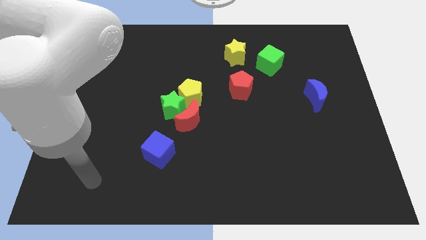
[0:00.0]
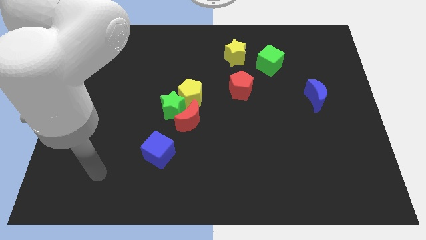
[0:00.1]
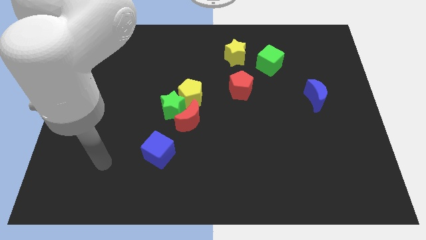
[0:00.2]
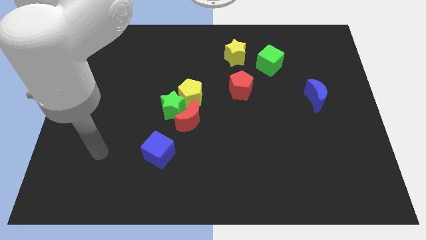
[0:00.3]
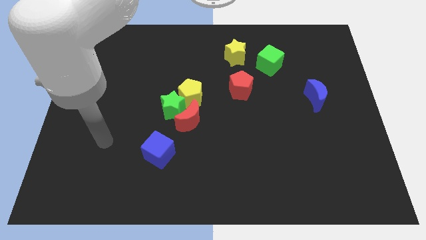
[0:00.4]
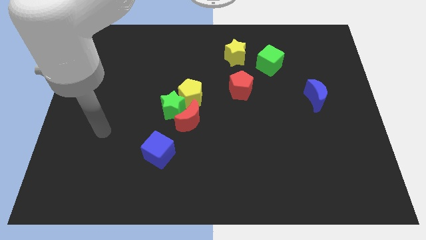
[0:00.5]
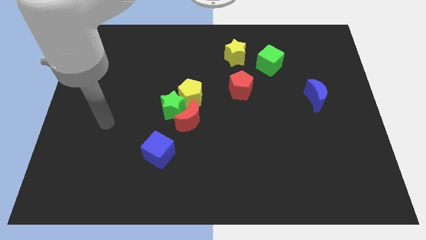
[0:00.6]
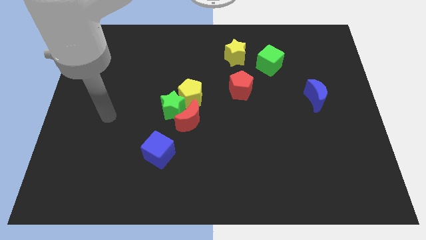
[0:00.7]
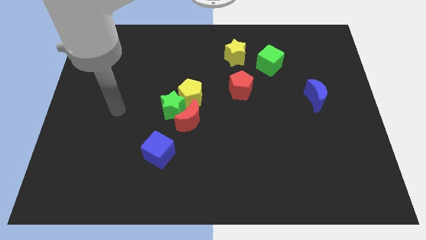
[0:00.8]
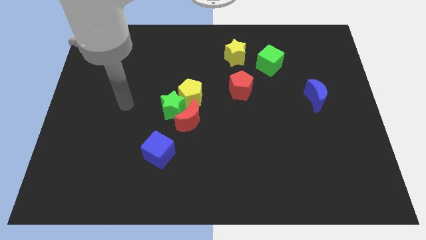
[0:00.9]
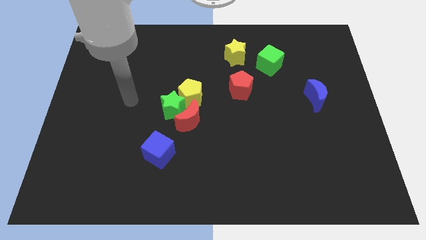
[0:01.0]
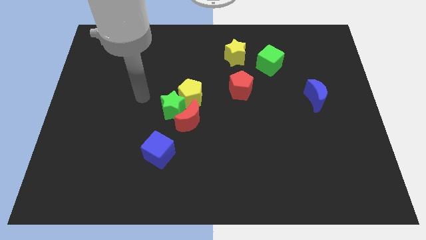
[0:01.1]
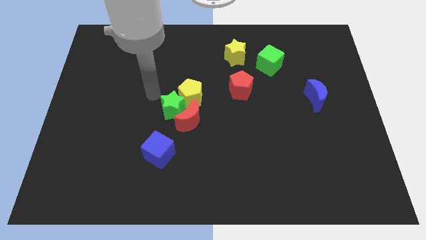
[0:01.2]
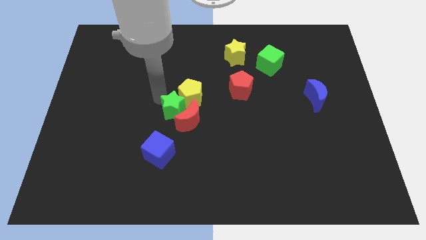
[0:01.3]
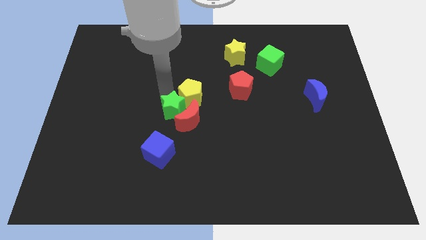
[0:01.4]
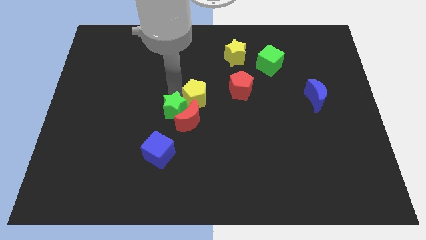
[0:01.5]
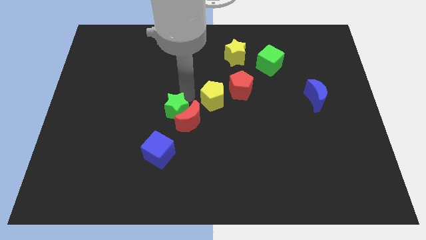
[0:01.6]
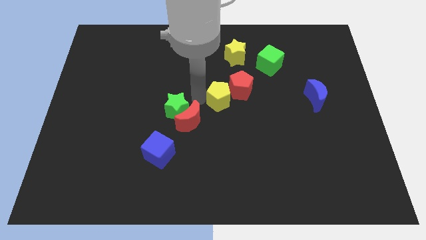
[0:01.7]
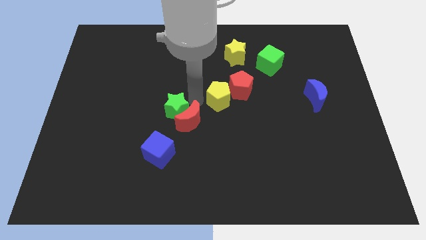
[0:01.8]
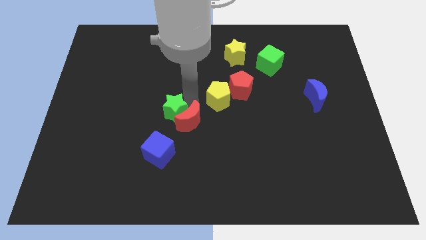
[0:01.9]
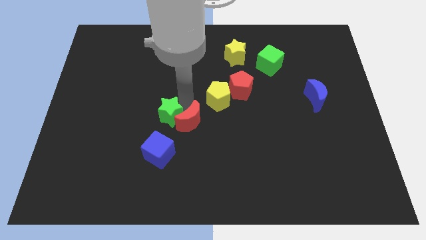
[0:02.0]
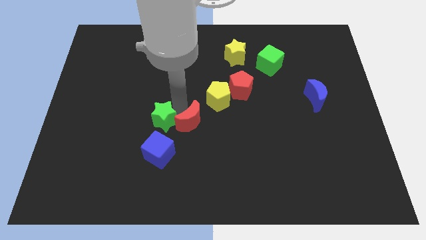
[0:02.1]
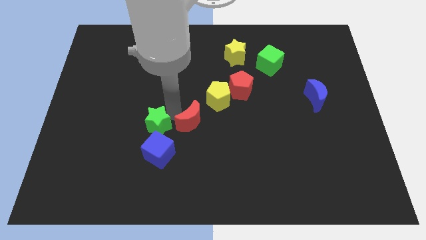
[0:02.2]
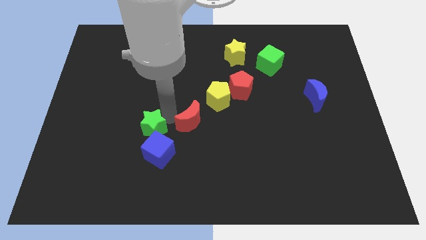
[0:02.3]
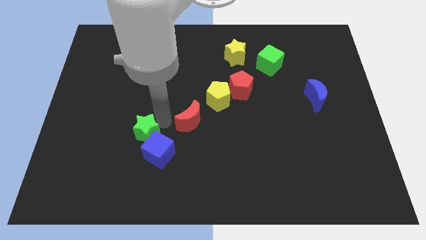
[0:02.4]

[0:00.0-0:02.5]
slightly slide the green star down and then to the left

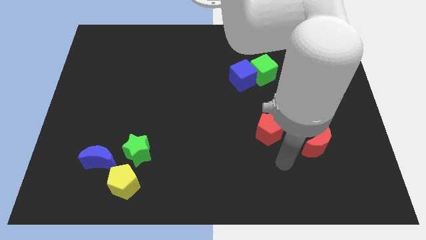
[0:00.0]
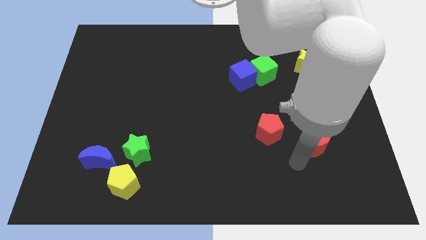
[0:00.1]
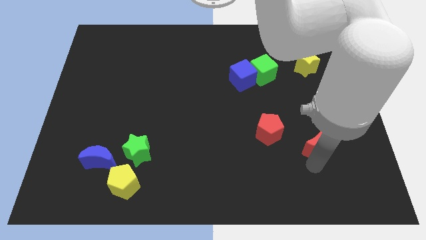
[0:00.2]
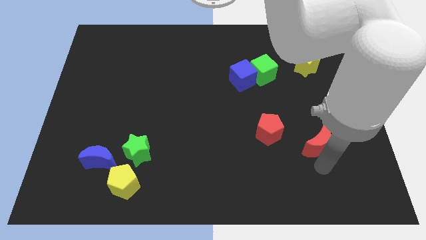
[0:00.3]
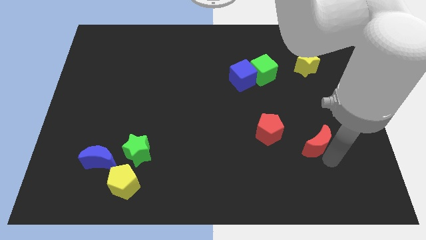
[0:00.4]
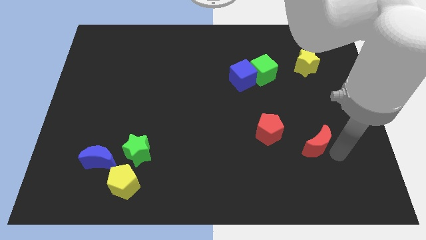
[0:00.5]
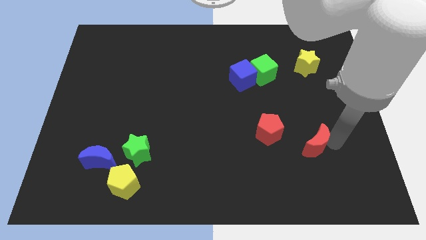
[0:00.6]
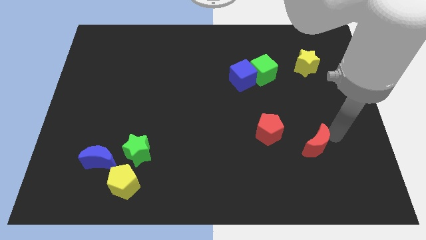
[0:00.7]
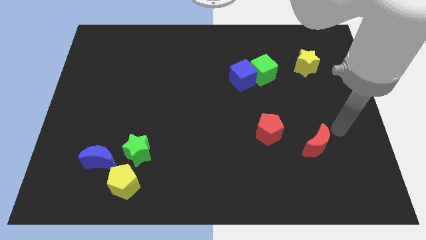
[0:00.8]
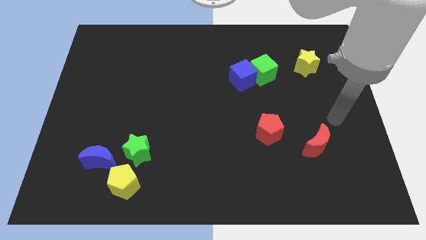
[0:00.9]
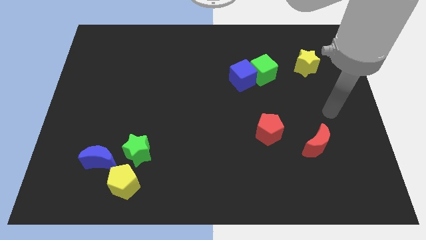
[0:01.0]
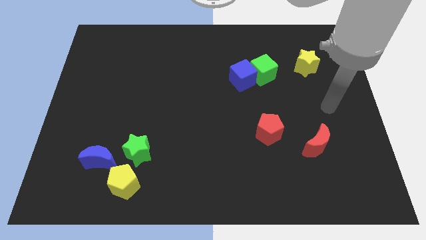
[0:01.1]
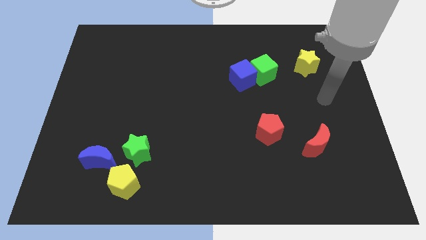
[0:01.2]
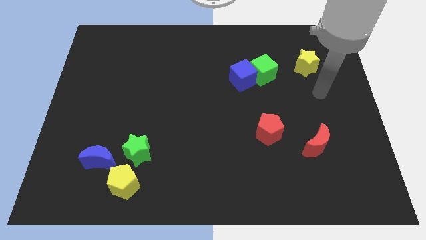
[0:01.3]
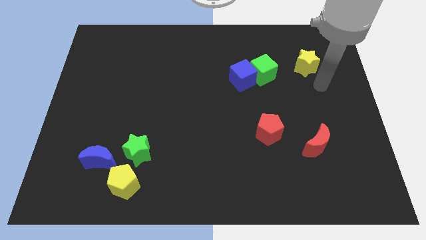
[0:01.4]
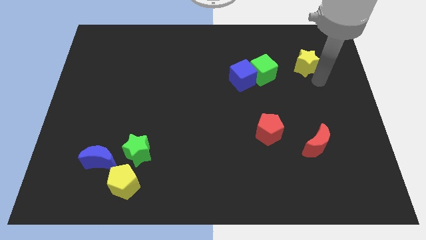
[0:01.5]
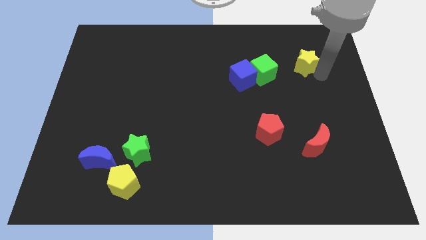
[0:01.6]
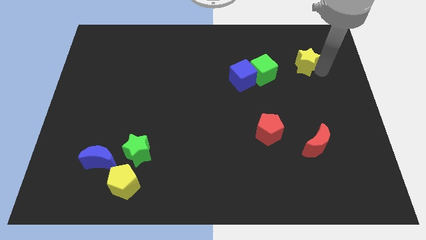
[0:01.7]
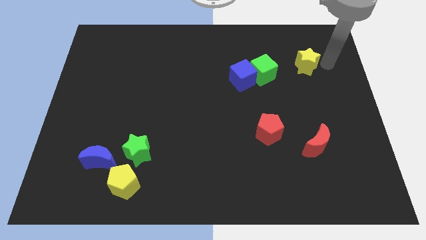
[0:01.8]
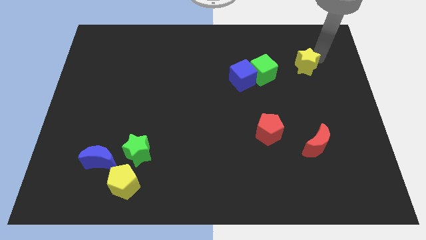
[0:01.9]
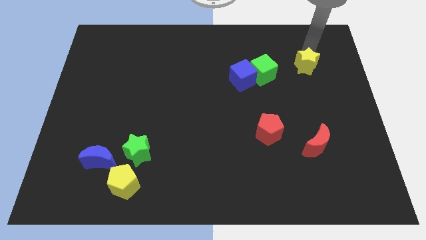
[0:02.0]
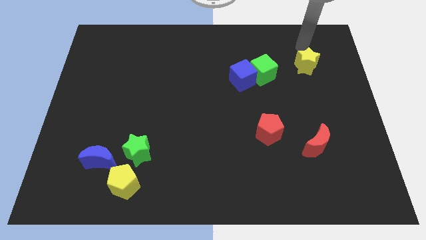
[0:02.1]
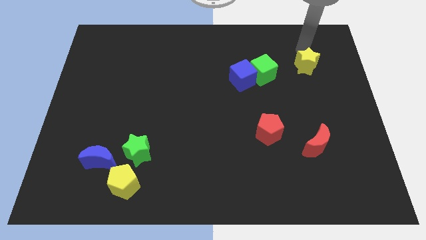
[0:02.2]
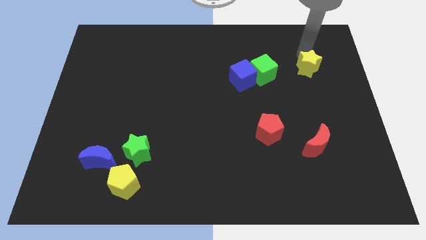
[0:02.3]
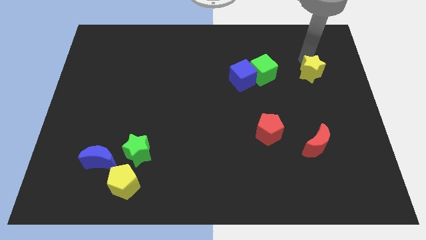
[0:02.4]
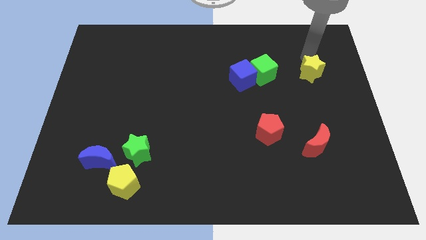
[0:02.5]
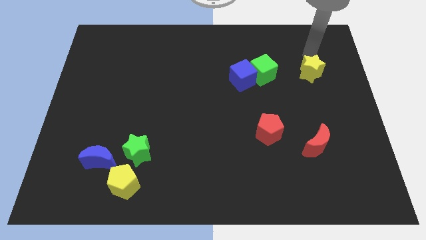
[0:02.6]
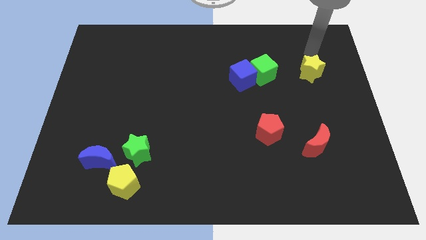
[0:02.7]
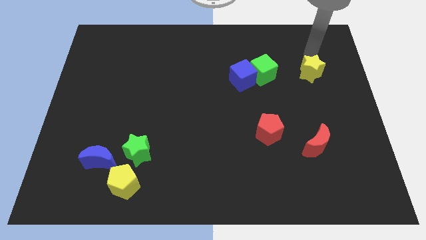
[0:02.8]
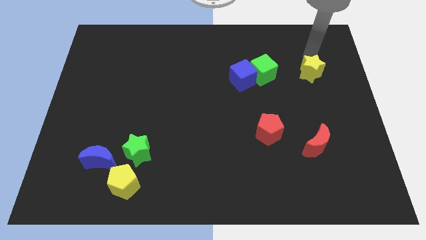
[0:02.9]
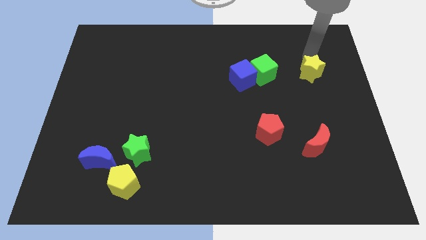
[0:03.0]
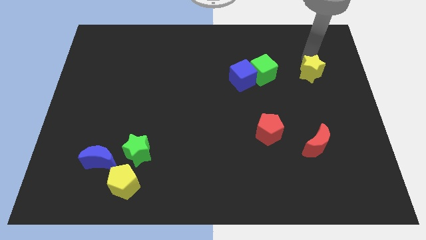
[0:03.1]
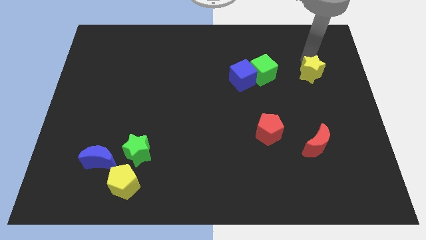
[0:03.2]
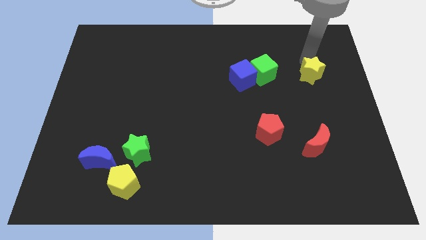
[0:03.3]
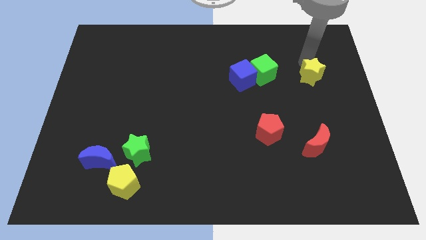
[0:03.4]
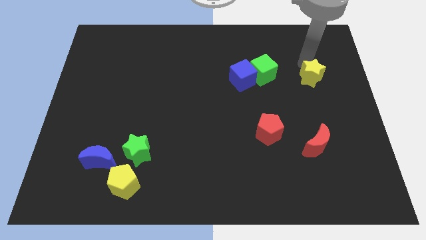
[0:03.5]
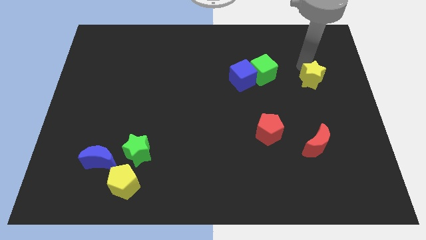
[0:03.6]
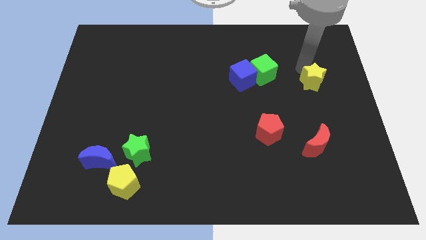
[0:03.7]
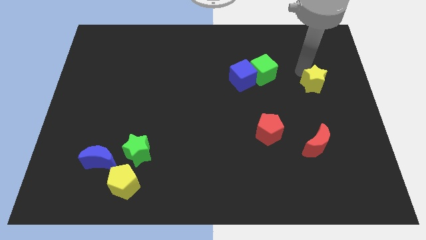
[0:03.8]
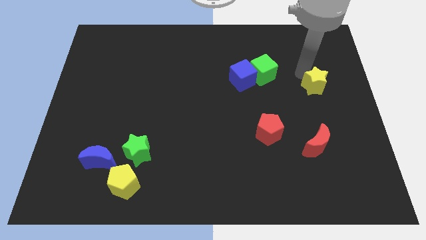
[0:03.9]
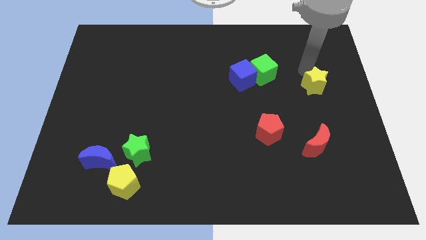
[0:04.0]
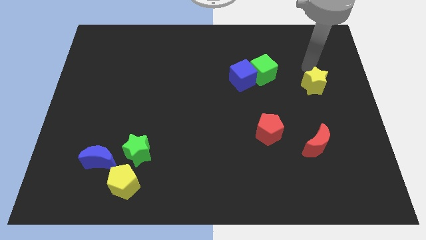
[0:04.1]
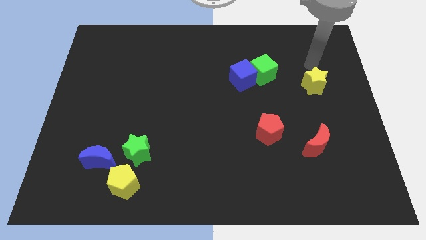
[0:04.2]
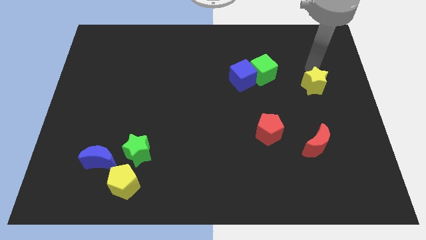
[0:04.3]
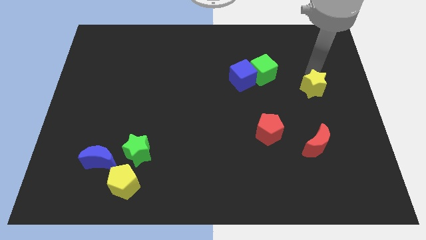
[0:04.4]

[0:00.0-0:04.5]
slide the yellow star a little downwards

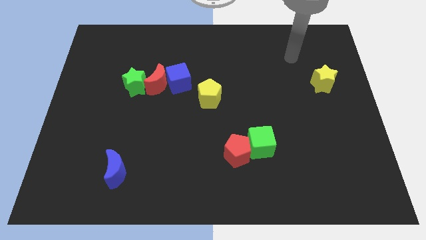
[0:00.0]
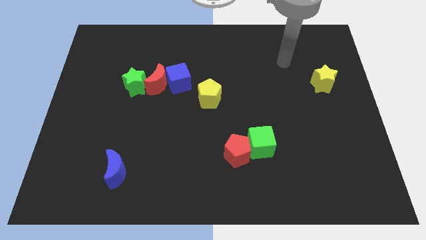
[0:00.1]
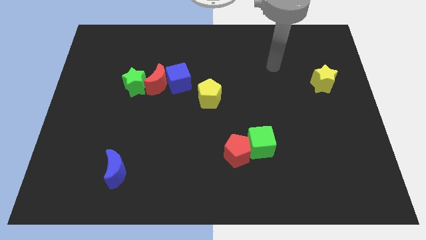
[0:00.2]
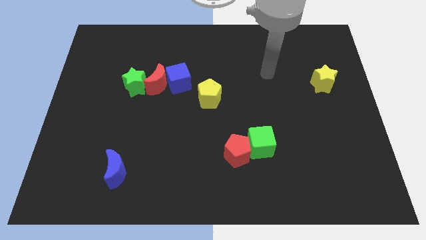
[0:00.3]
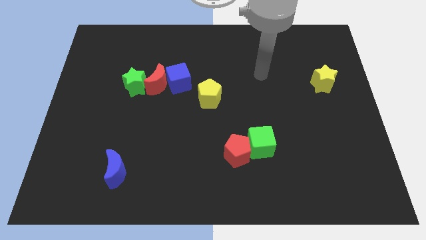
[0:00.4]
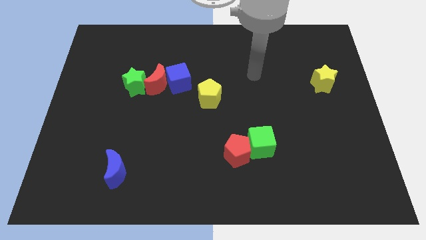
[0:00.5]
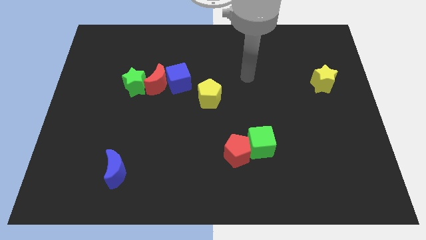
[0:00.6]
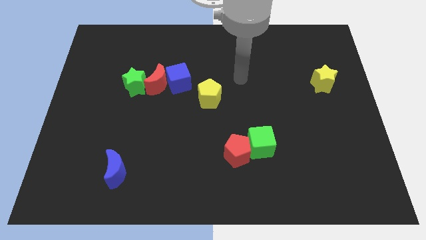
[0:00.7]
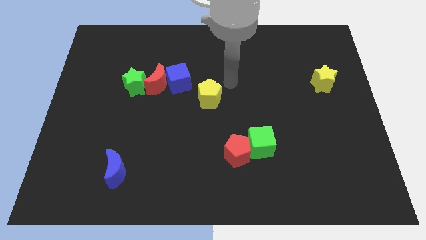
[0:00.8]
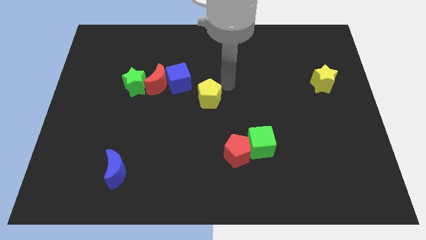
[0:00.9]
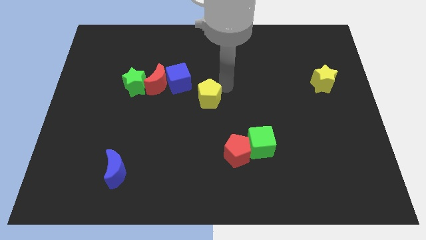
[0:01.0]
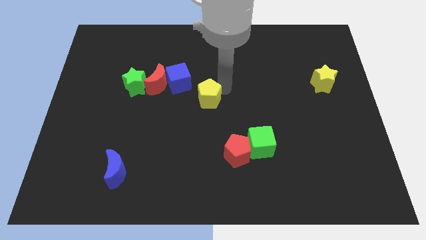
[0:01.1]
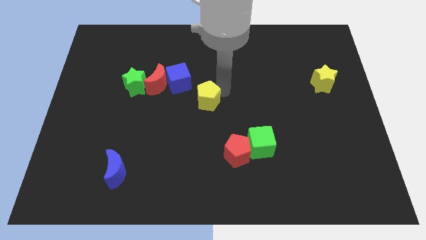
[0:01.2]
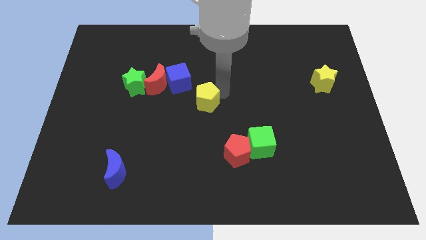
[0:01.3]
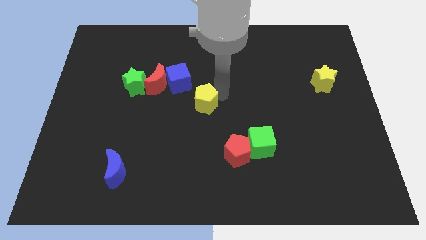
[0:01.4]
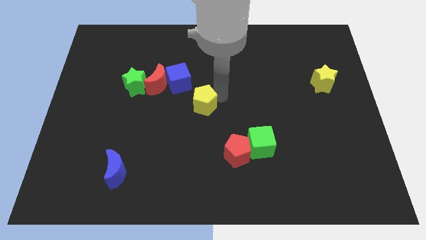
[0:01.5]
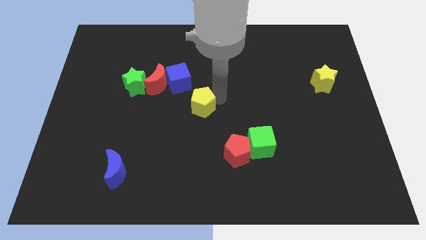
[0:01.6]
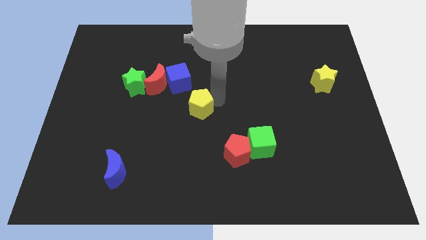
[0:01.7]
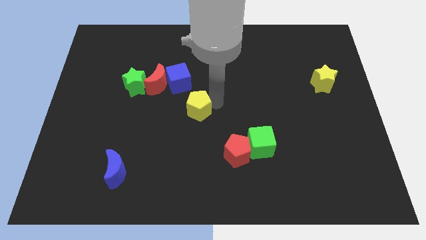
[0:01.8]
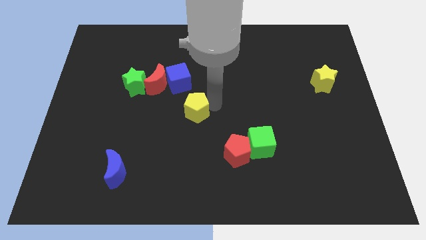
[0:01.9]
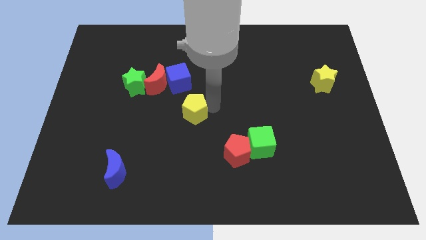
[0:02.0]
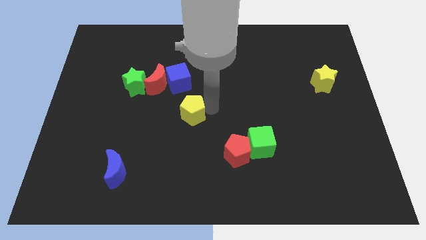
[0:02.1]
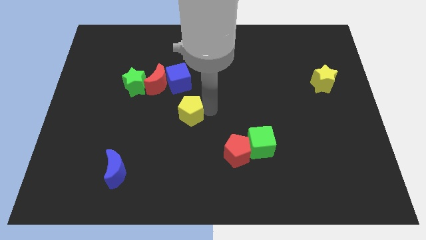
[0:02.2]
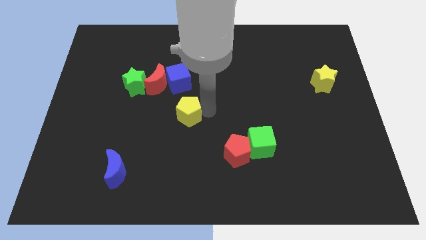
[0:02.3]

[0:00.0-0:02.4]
slightly push the yellow pentagon downwards and to the left diagonally
